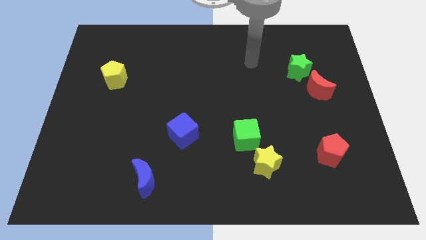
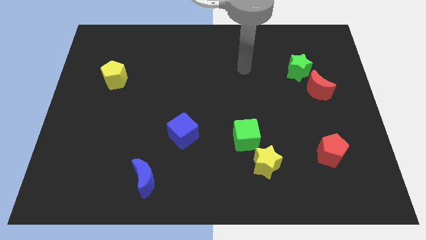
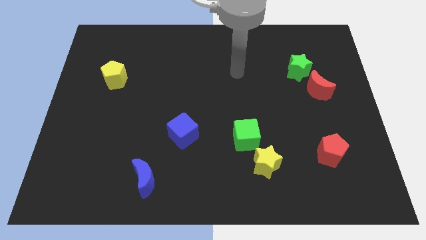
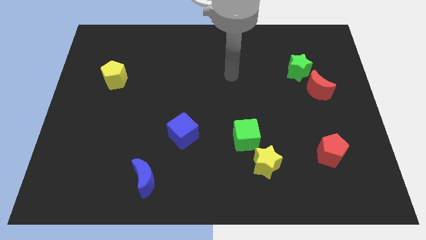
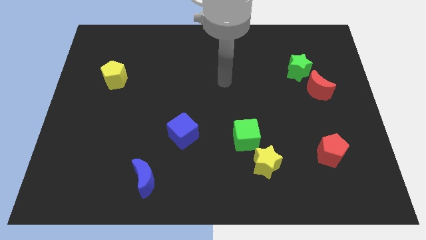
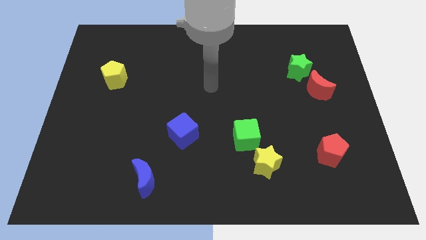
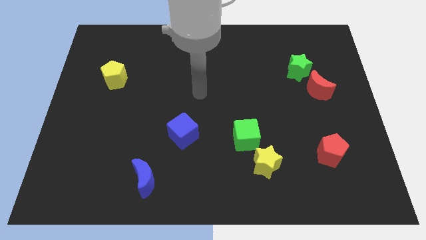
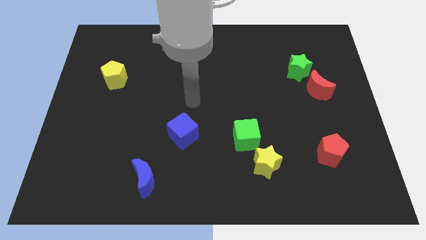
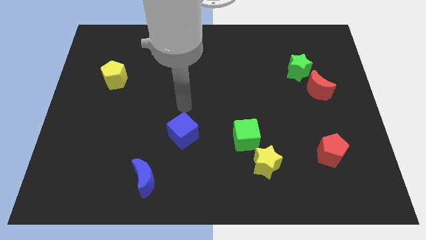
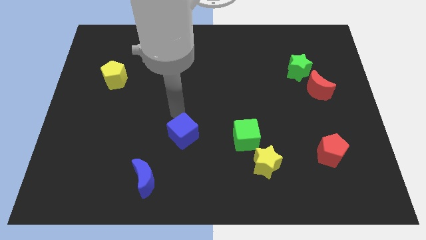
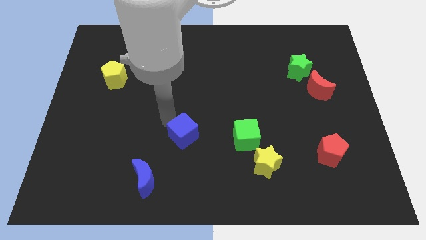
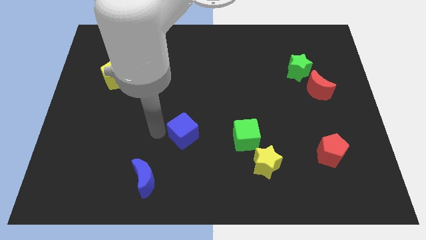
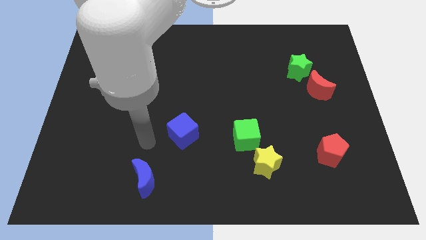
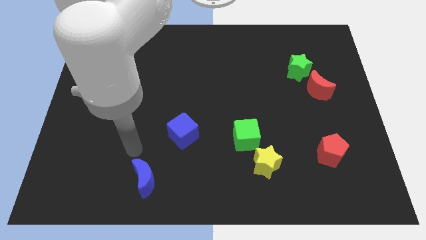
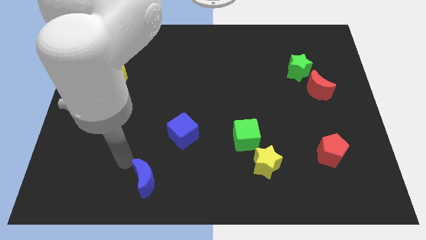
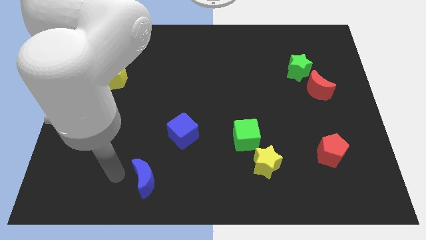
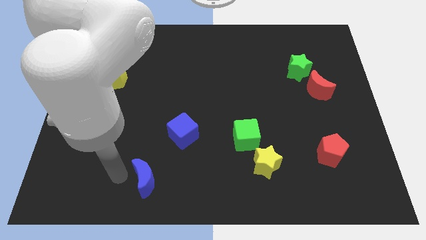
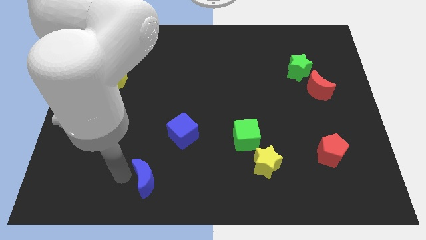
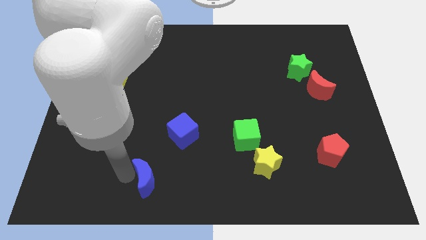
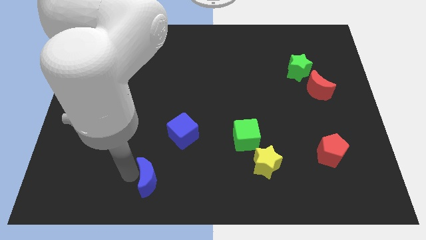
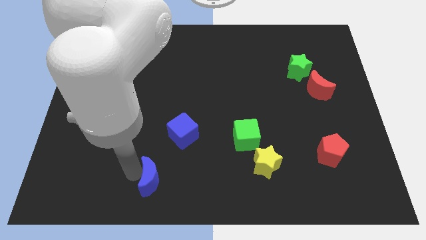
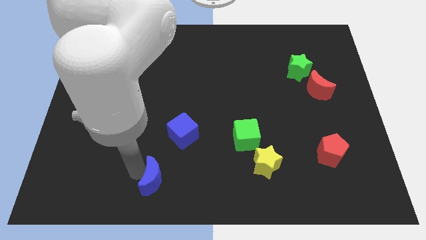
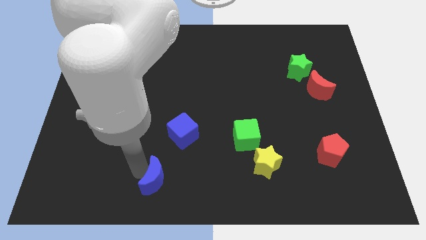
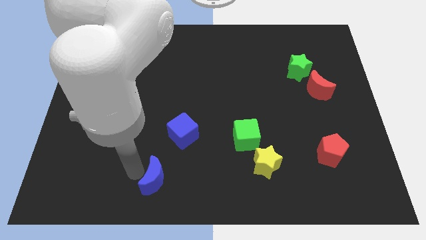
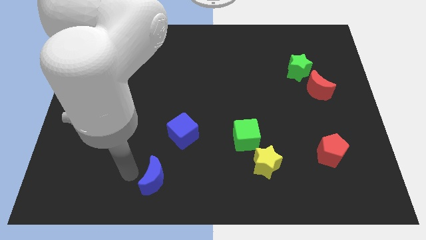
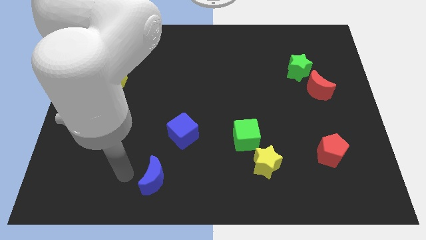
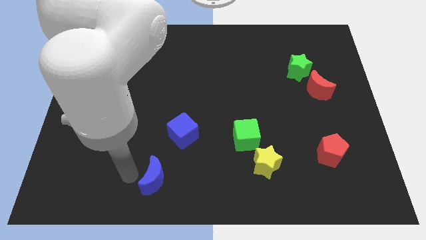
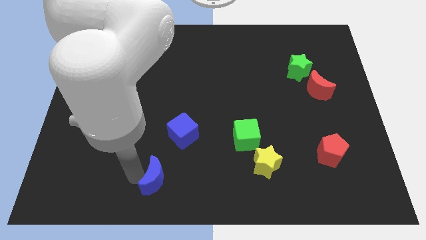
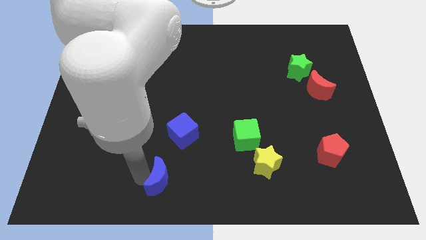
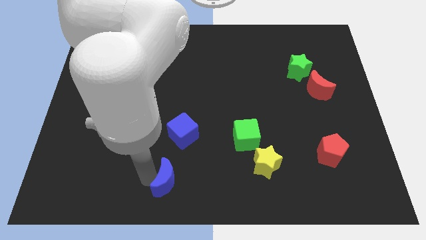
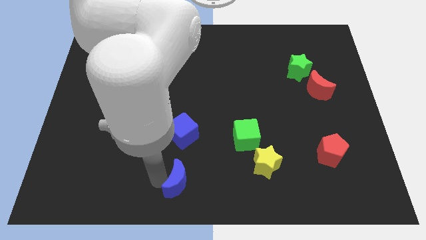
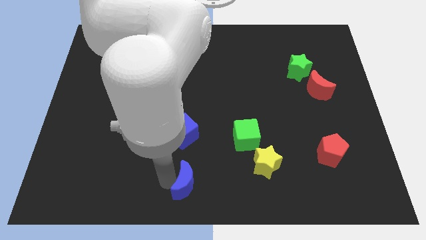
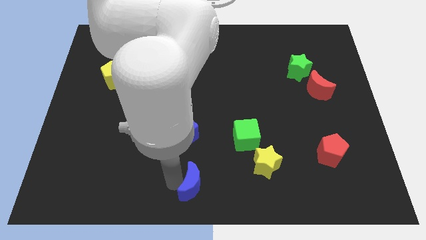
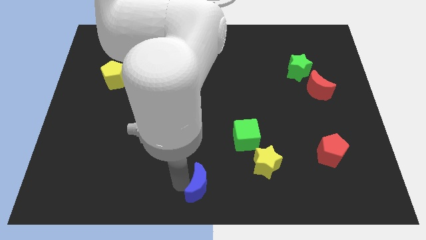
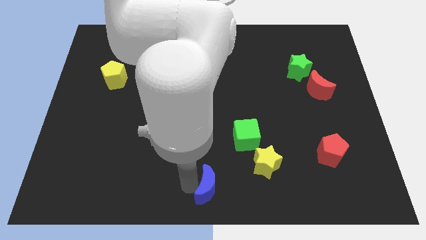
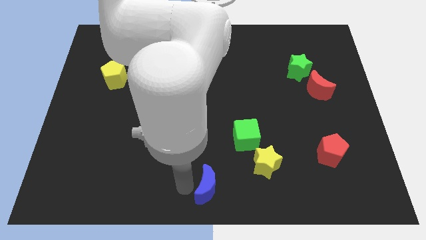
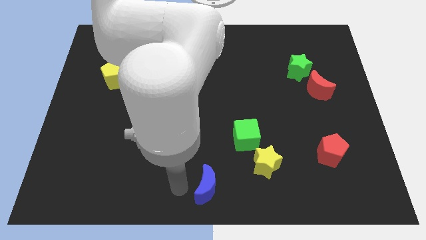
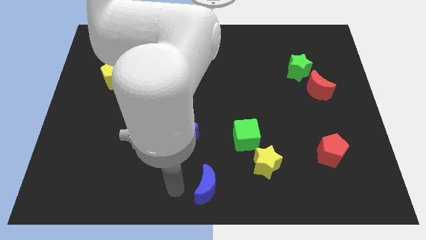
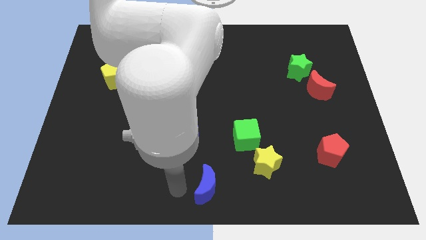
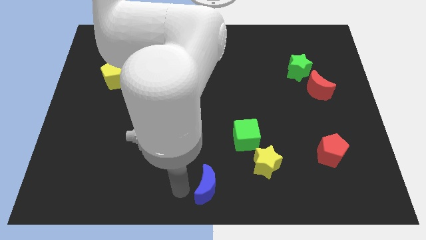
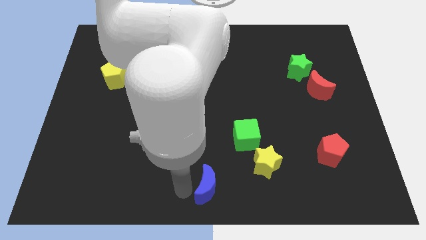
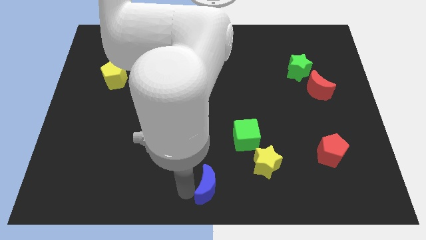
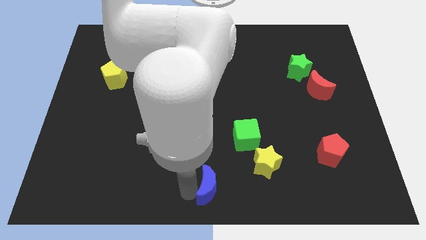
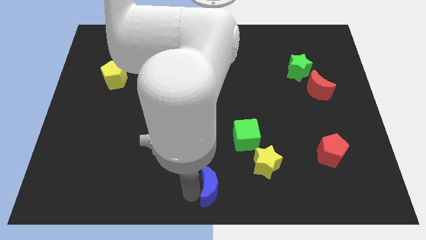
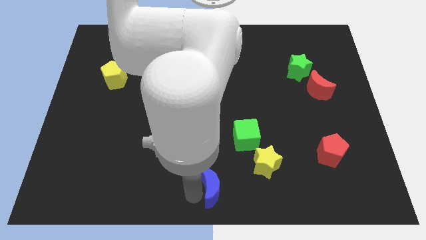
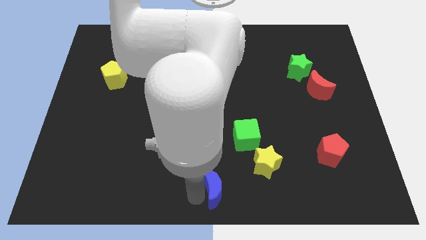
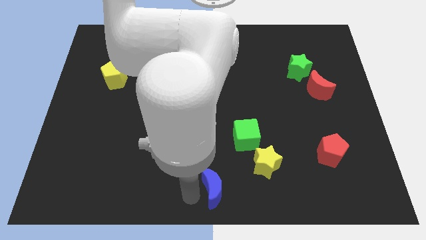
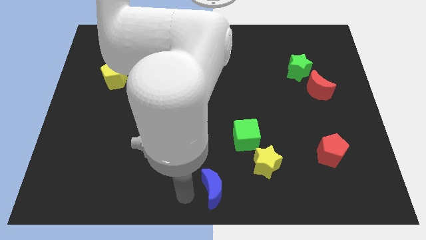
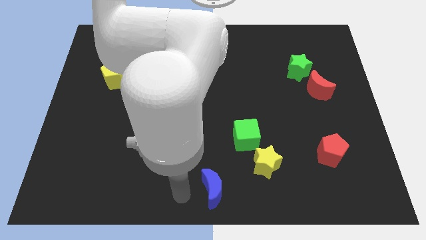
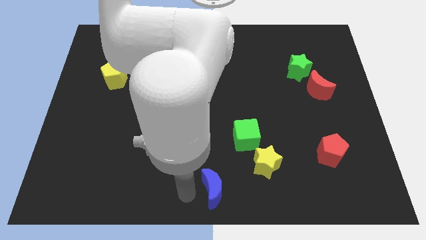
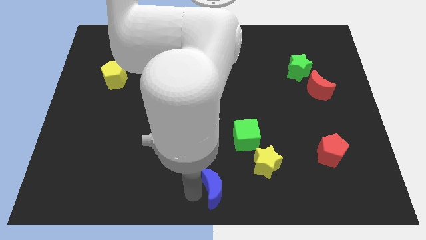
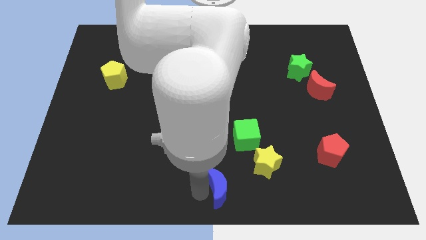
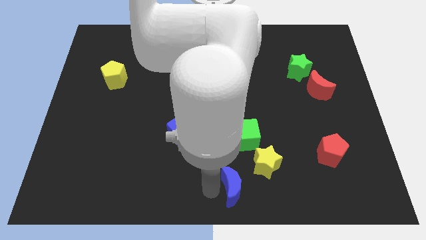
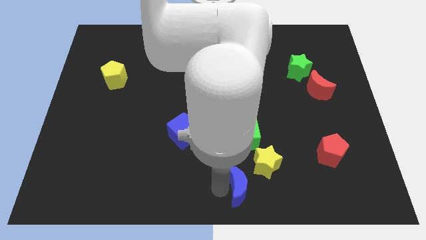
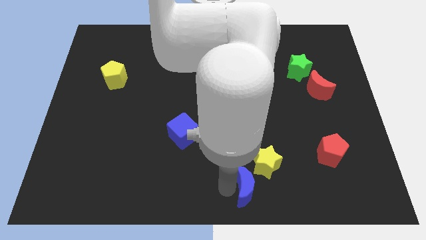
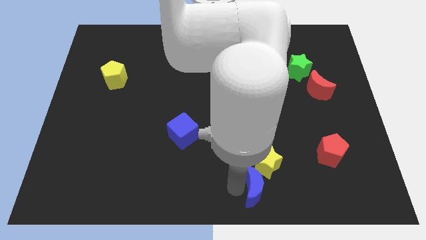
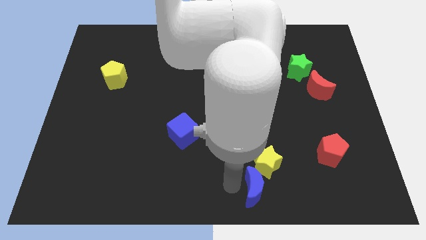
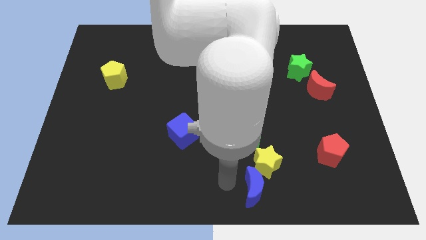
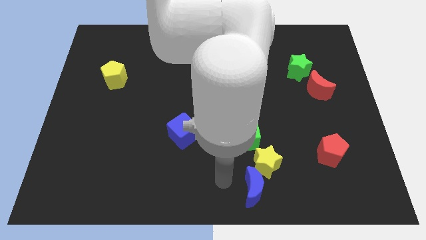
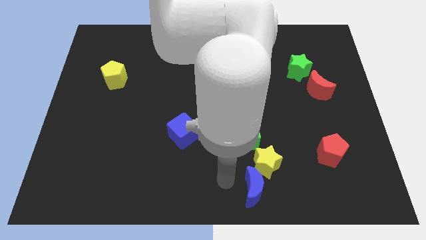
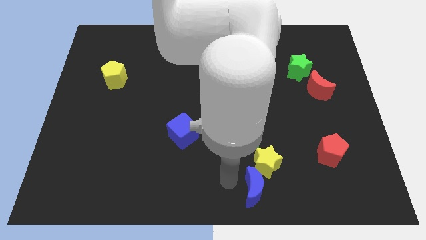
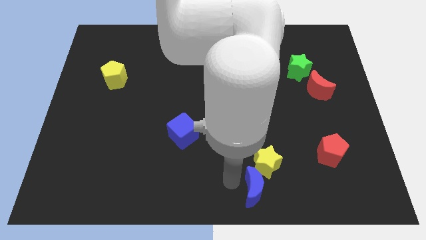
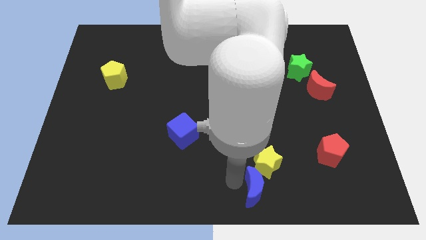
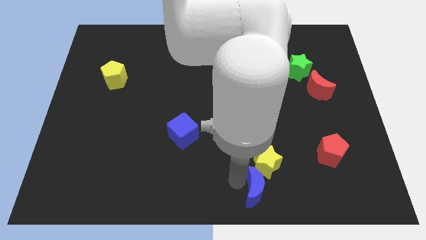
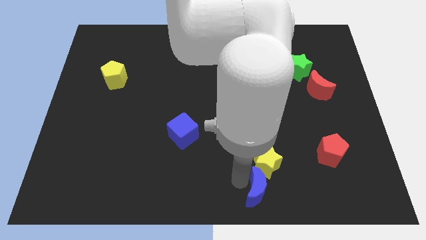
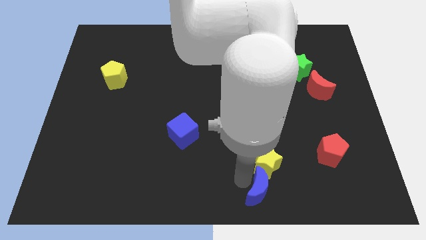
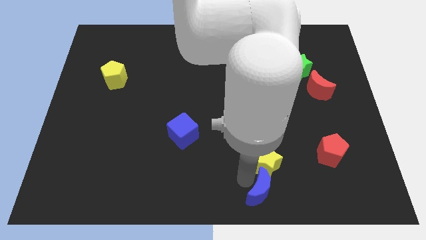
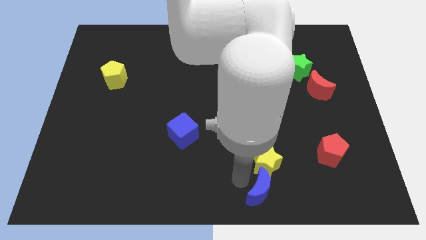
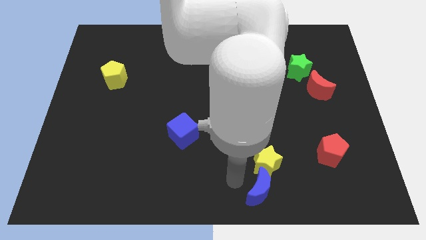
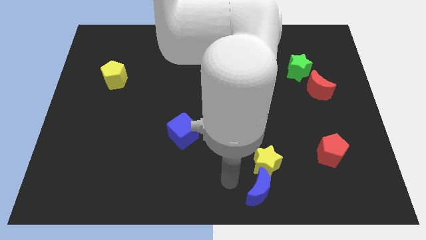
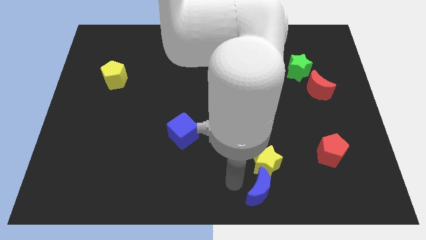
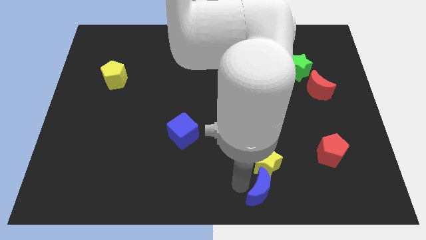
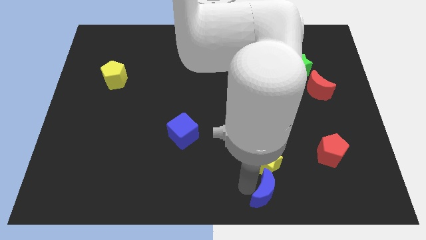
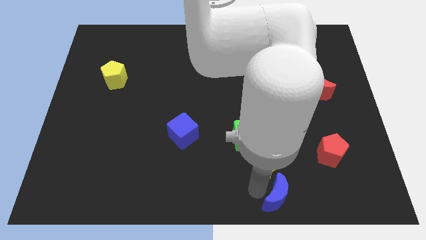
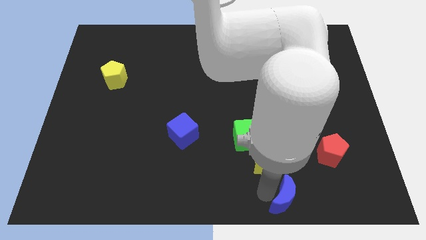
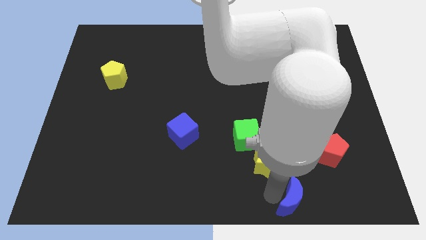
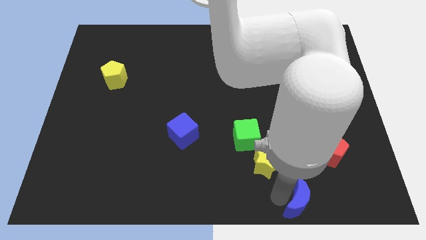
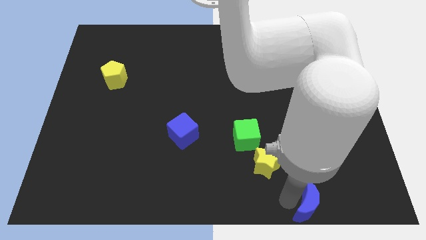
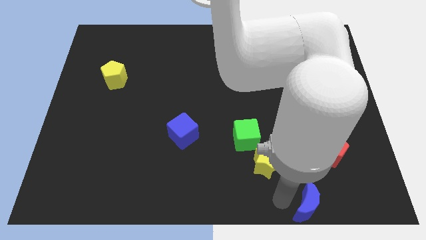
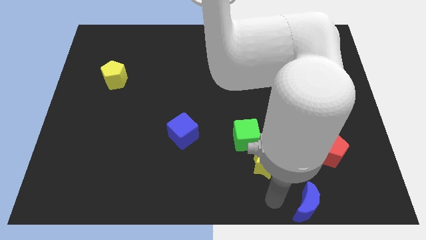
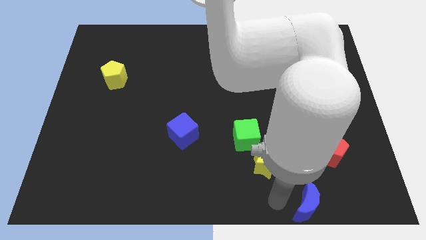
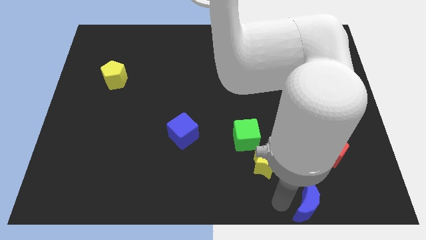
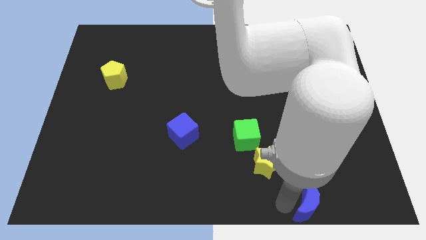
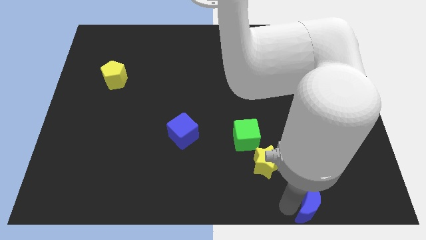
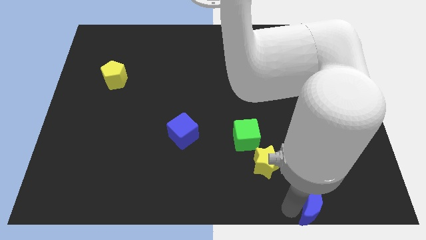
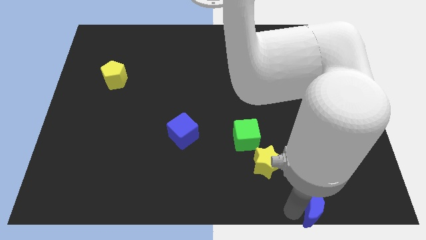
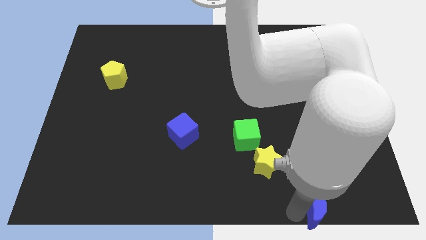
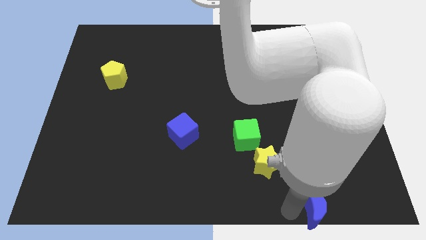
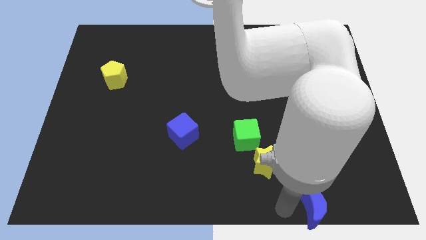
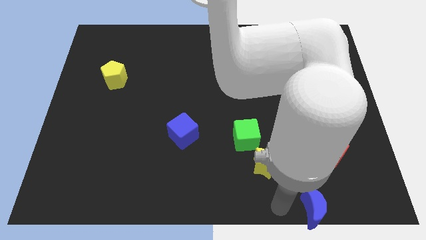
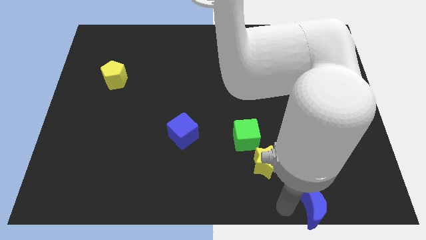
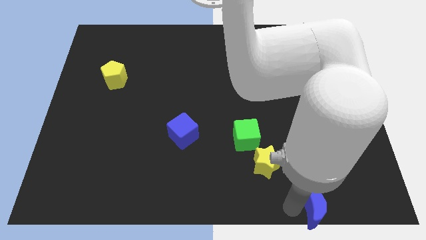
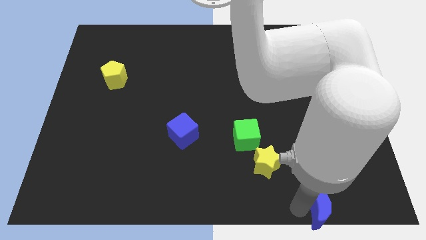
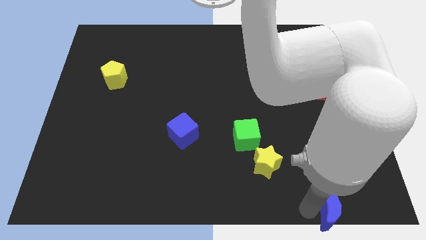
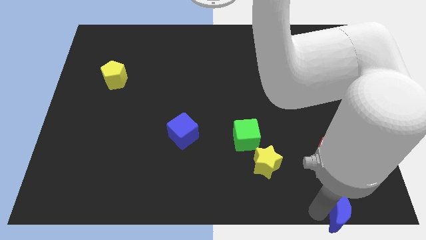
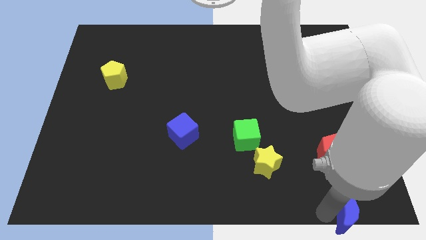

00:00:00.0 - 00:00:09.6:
slide the blue moon to the bottom right corner
